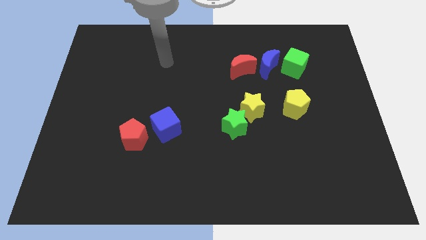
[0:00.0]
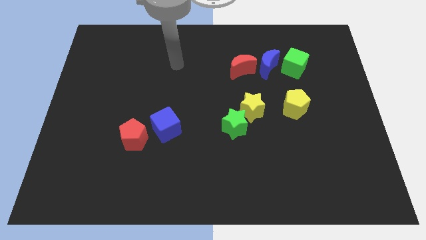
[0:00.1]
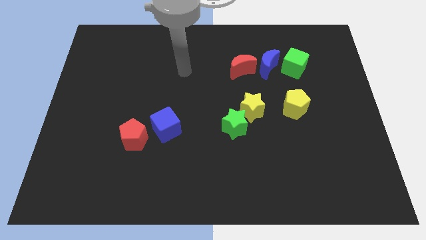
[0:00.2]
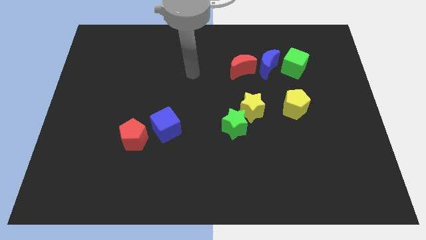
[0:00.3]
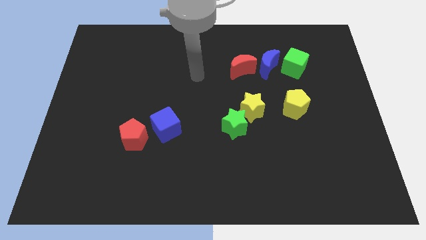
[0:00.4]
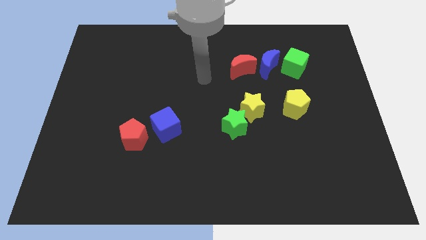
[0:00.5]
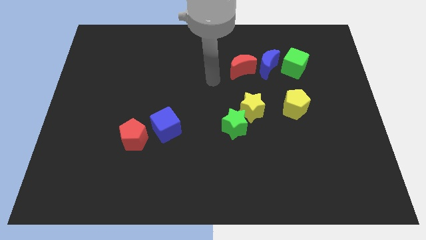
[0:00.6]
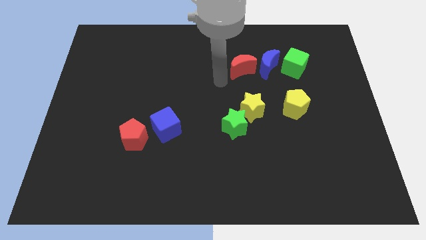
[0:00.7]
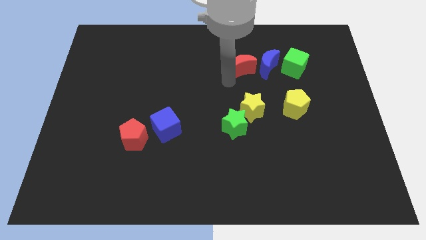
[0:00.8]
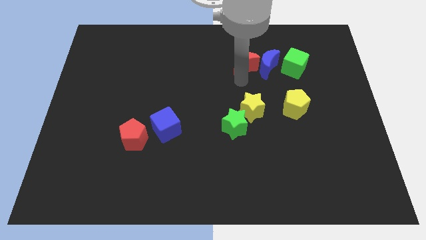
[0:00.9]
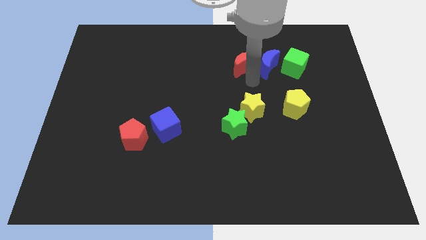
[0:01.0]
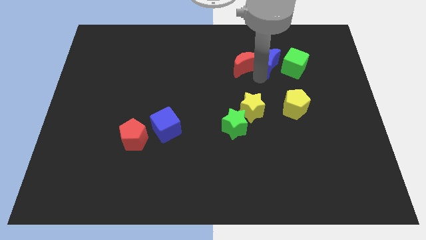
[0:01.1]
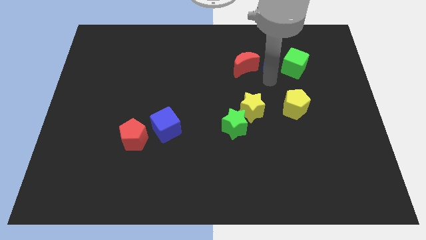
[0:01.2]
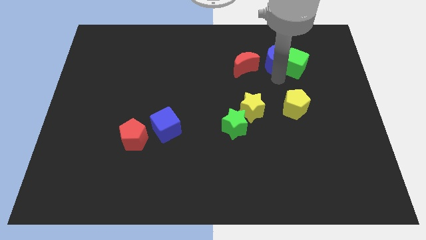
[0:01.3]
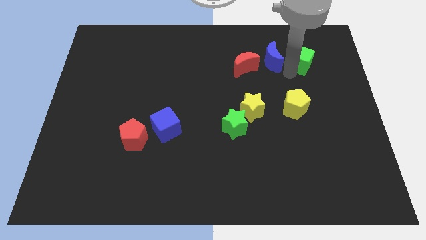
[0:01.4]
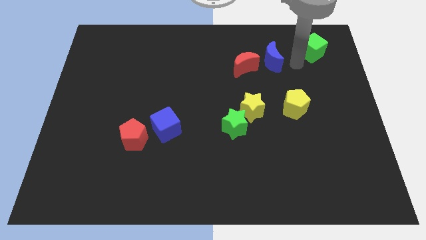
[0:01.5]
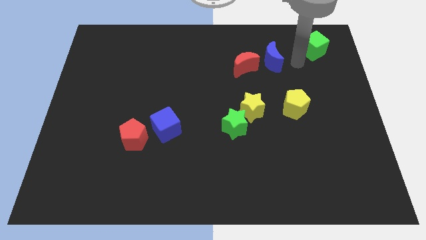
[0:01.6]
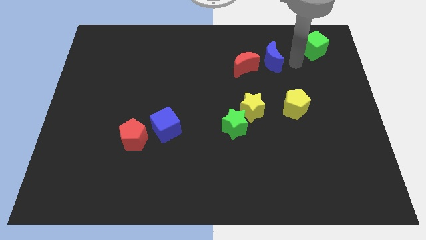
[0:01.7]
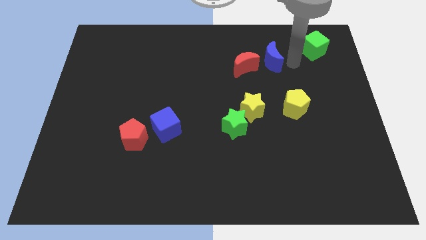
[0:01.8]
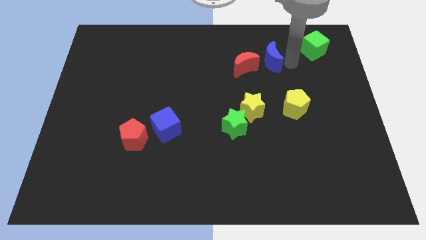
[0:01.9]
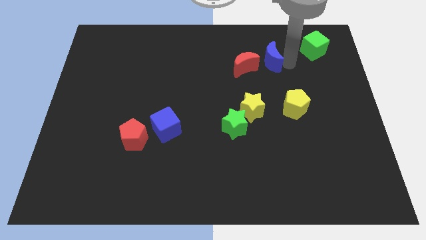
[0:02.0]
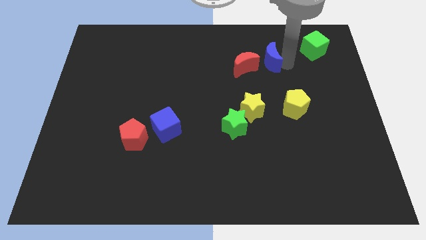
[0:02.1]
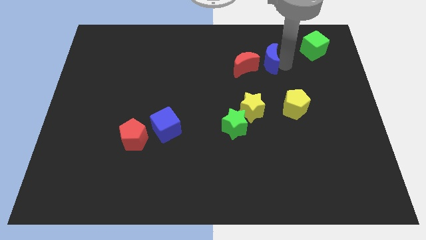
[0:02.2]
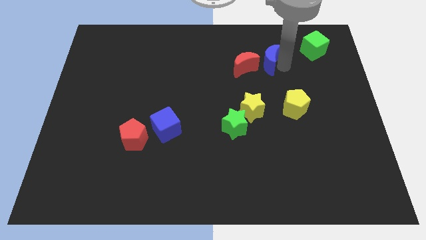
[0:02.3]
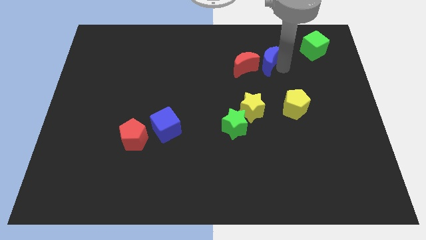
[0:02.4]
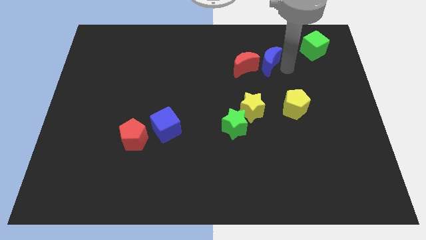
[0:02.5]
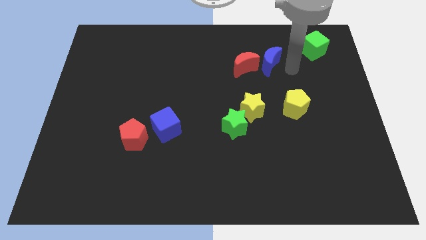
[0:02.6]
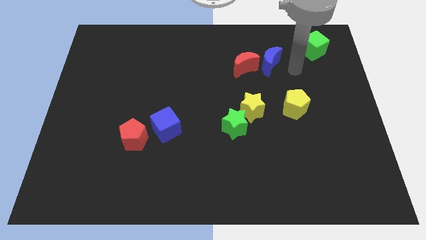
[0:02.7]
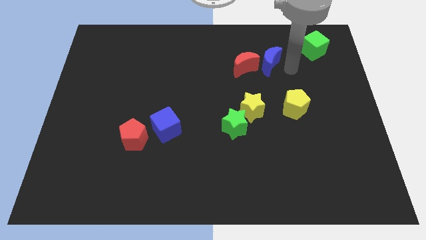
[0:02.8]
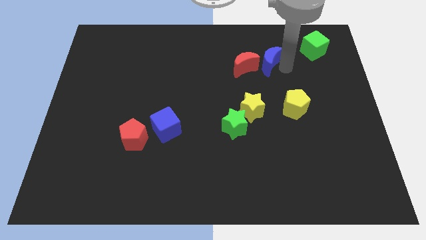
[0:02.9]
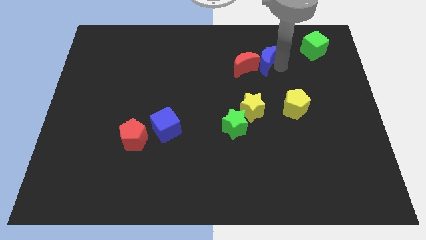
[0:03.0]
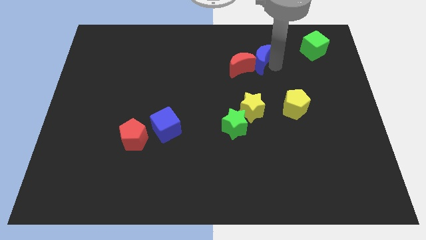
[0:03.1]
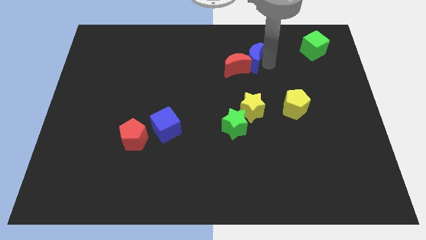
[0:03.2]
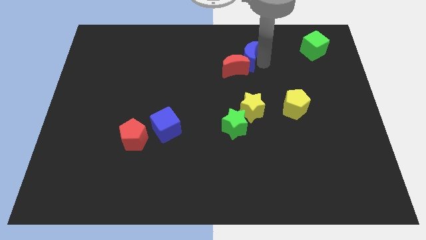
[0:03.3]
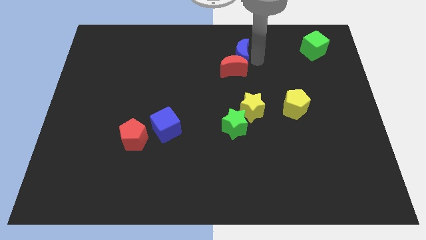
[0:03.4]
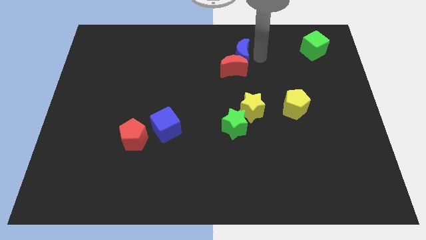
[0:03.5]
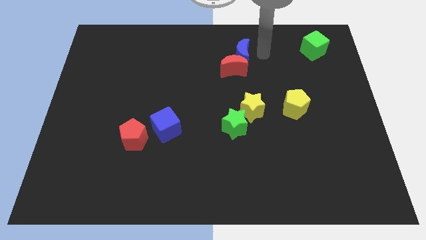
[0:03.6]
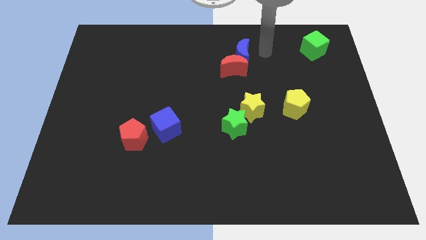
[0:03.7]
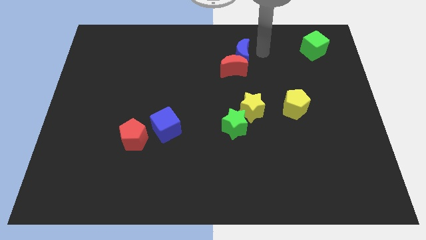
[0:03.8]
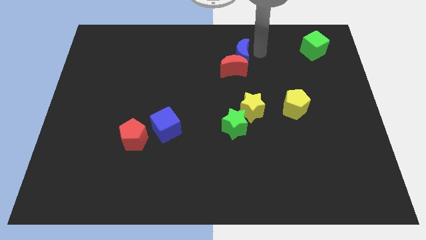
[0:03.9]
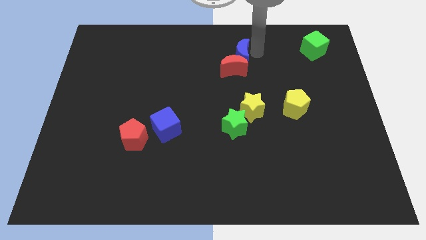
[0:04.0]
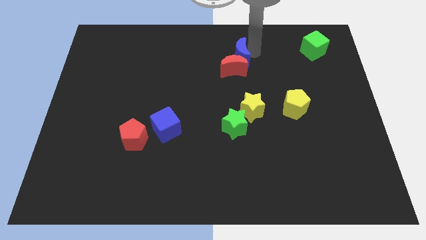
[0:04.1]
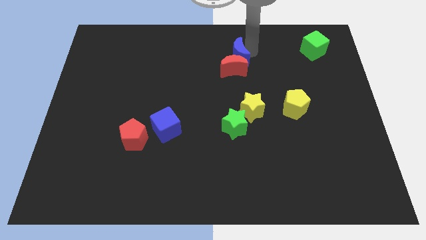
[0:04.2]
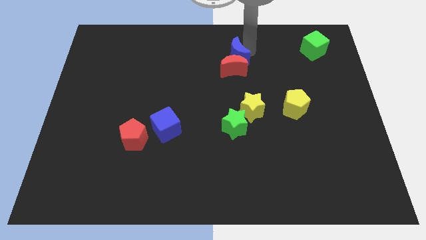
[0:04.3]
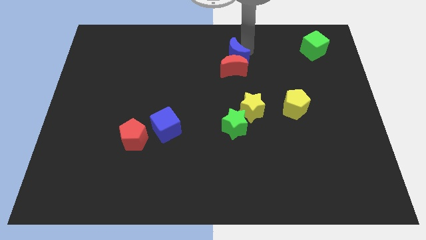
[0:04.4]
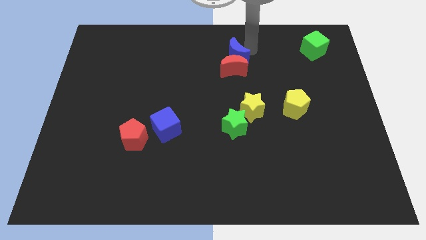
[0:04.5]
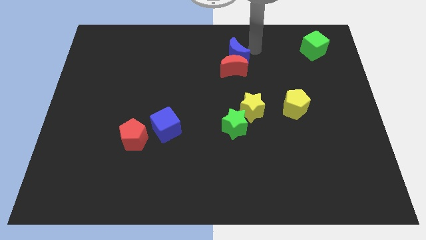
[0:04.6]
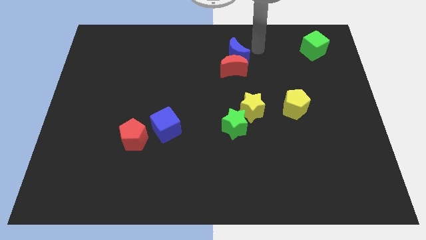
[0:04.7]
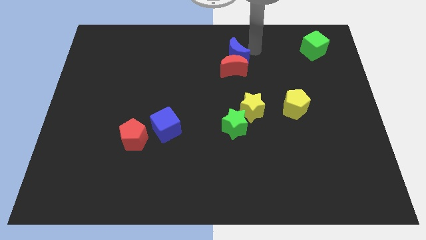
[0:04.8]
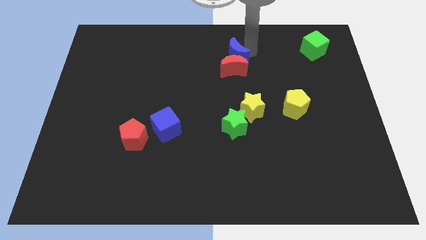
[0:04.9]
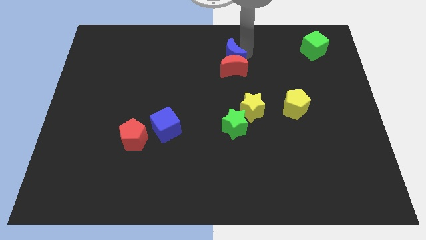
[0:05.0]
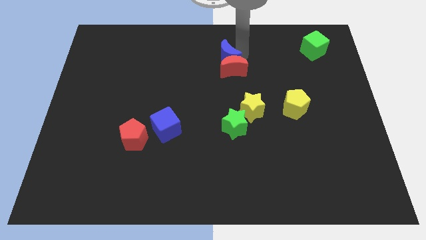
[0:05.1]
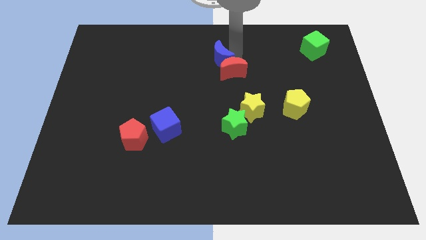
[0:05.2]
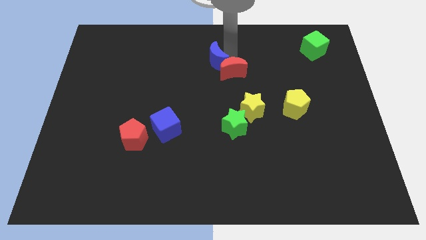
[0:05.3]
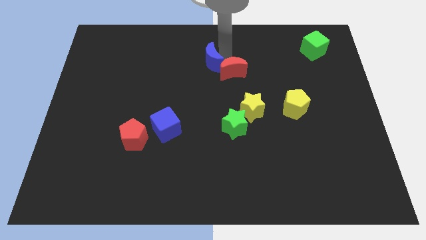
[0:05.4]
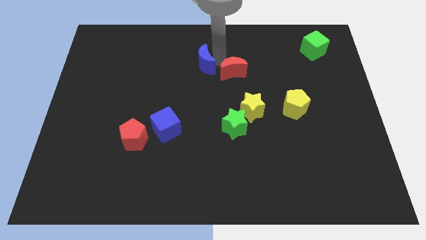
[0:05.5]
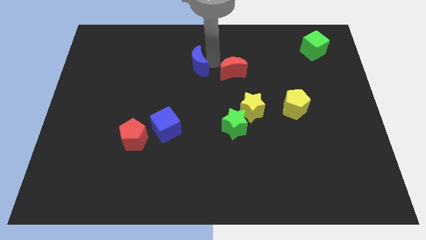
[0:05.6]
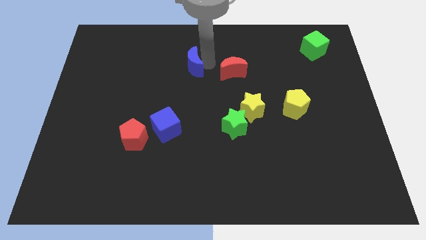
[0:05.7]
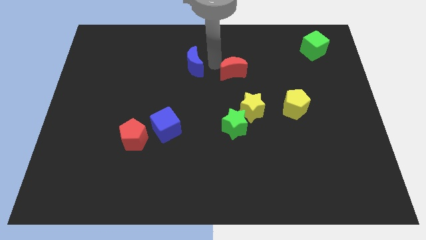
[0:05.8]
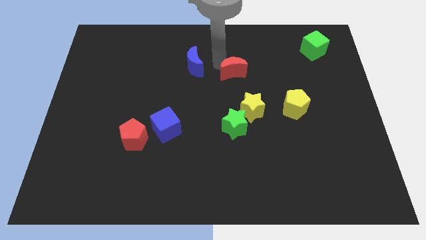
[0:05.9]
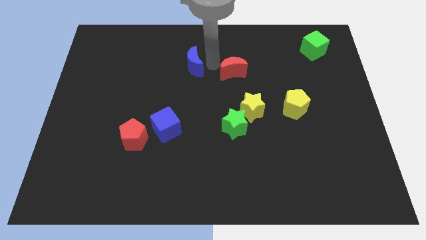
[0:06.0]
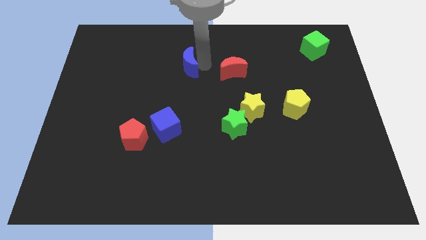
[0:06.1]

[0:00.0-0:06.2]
push the blue moon left

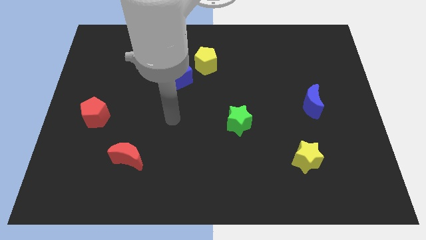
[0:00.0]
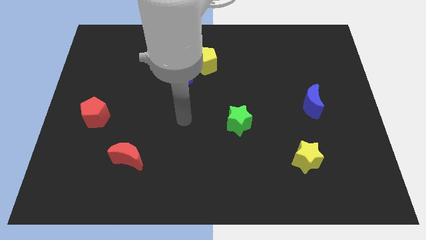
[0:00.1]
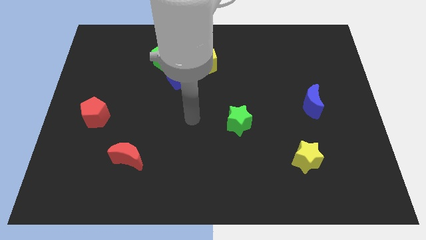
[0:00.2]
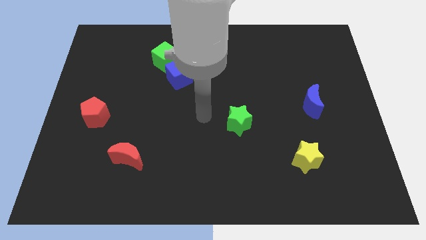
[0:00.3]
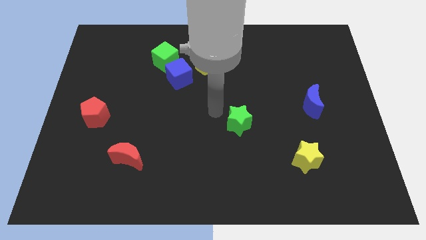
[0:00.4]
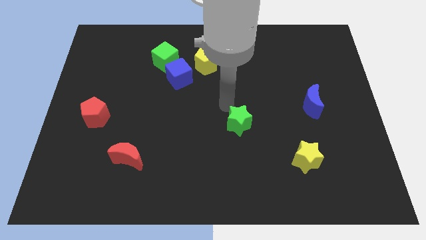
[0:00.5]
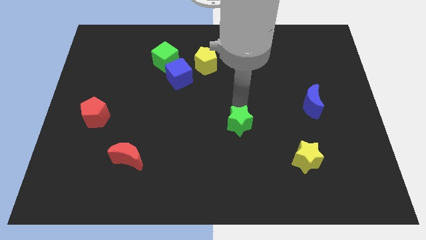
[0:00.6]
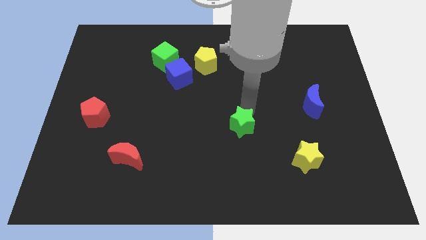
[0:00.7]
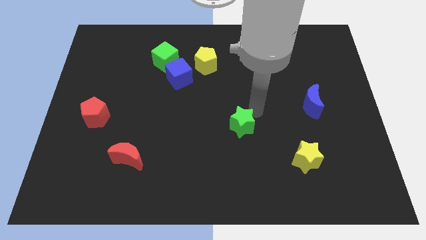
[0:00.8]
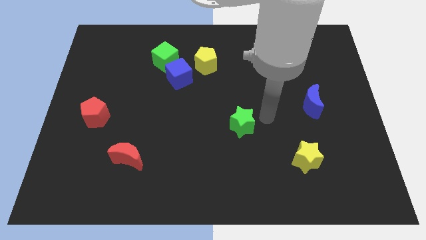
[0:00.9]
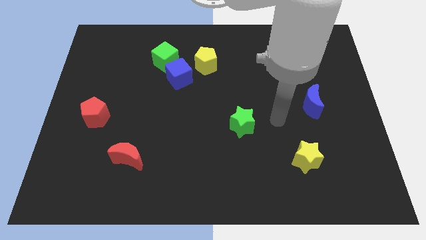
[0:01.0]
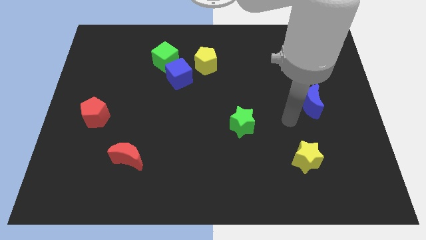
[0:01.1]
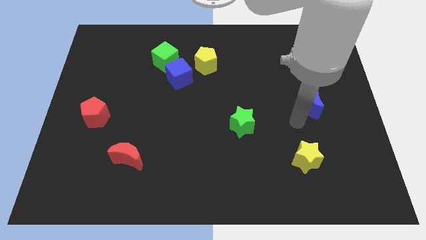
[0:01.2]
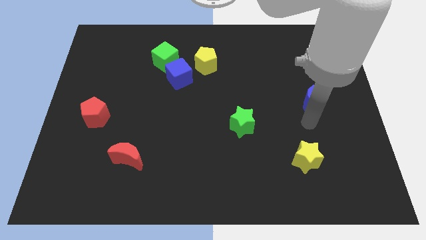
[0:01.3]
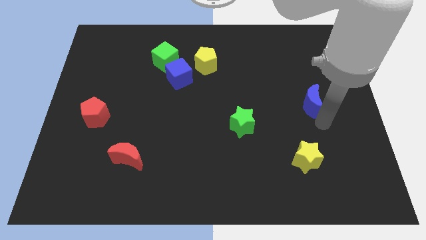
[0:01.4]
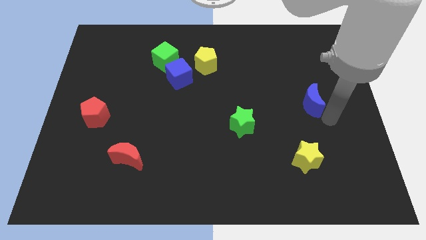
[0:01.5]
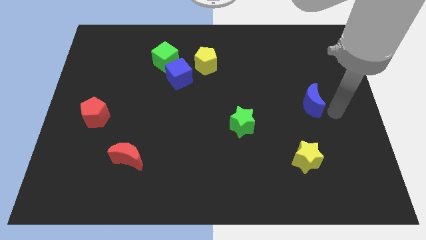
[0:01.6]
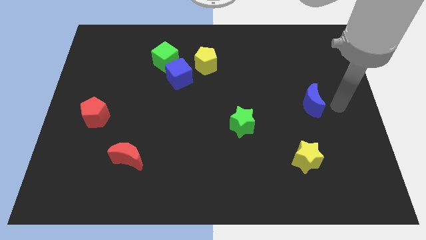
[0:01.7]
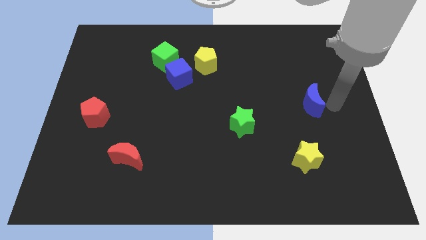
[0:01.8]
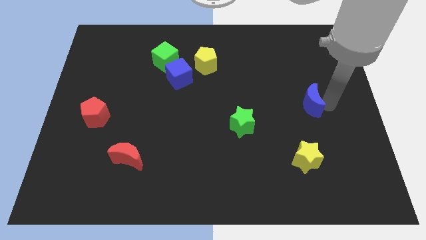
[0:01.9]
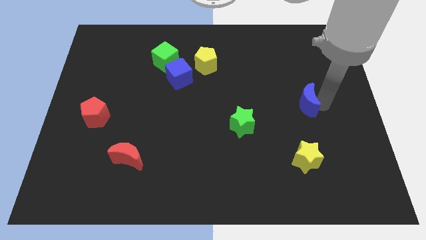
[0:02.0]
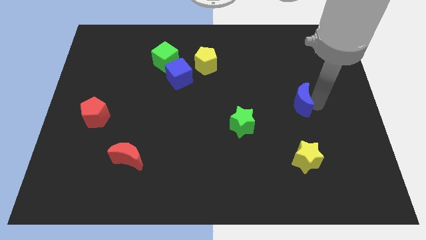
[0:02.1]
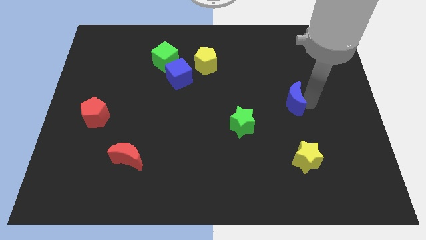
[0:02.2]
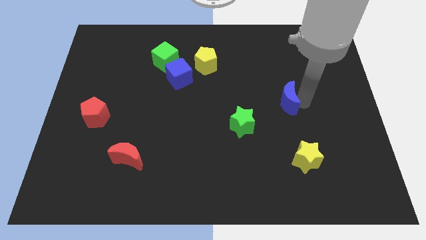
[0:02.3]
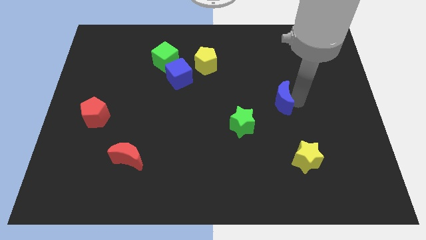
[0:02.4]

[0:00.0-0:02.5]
slide the blue moon somewhat left
